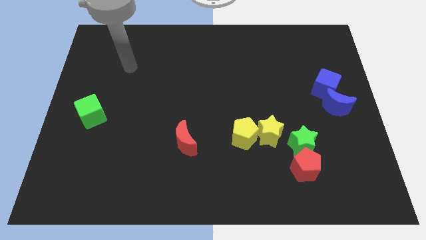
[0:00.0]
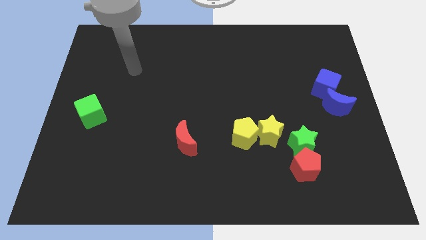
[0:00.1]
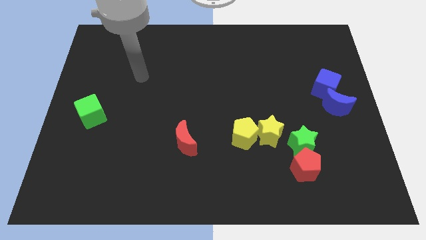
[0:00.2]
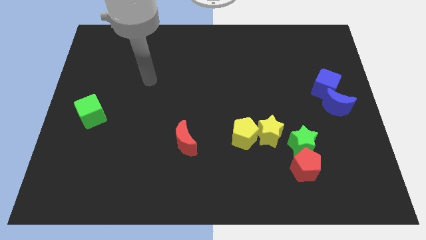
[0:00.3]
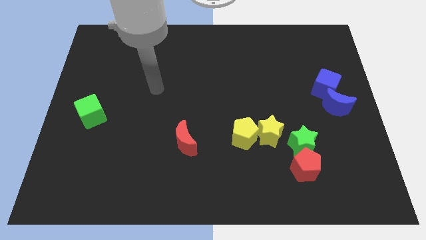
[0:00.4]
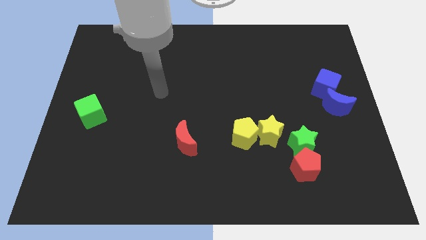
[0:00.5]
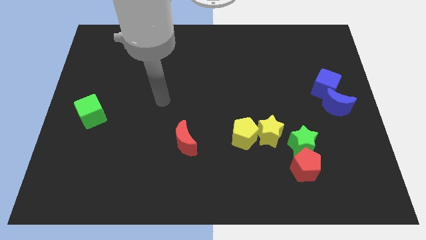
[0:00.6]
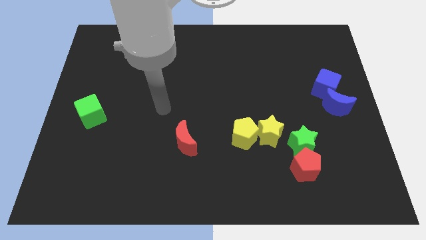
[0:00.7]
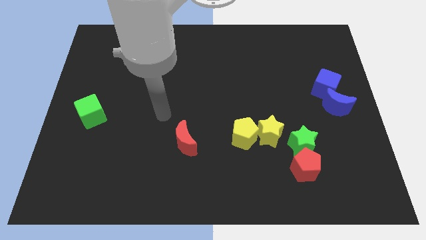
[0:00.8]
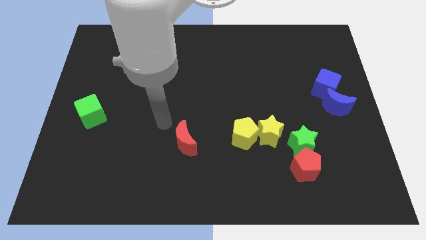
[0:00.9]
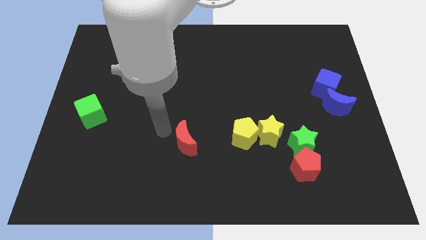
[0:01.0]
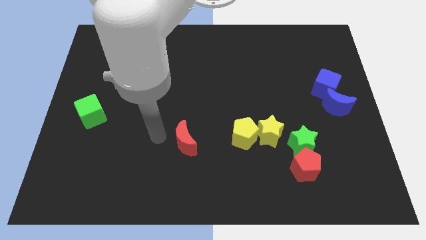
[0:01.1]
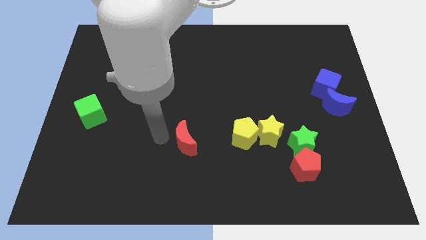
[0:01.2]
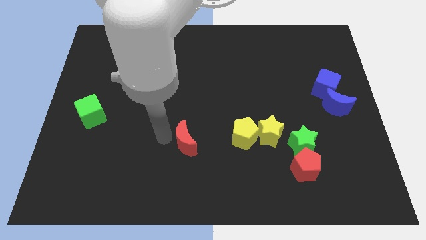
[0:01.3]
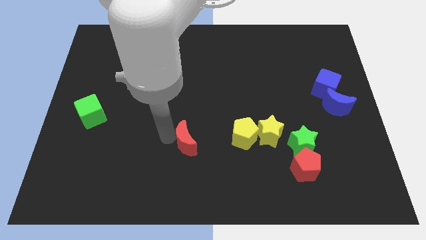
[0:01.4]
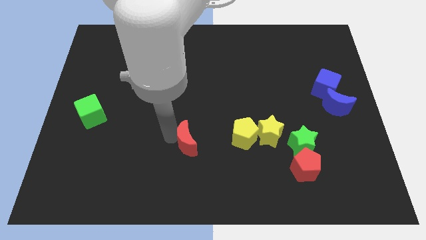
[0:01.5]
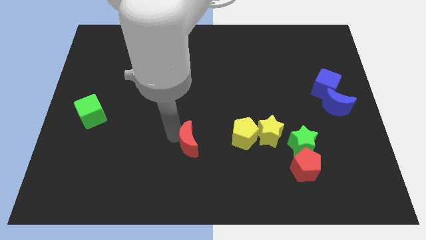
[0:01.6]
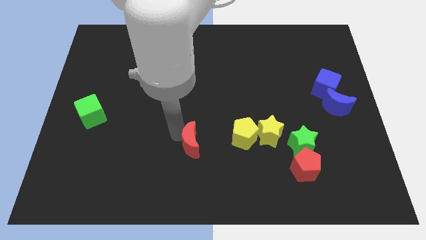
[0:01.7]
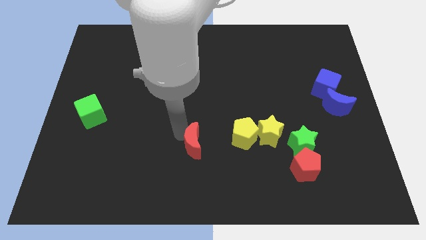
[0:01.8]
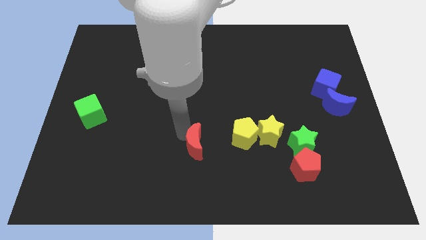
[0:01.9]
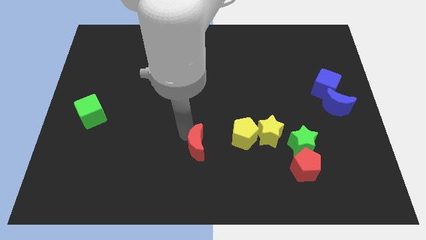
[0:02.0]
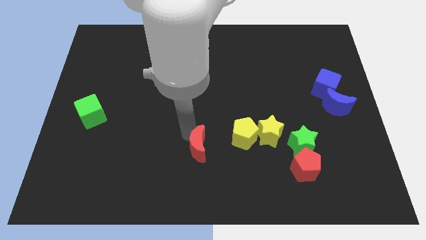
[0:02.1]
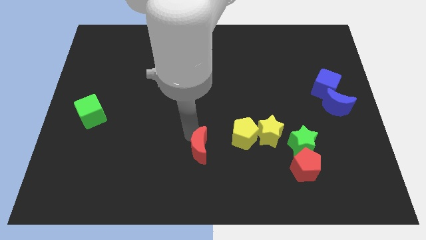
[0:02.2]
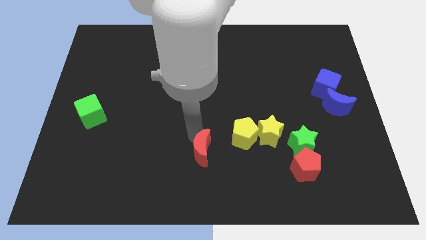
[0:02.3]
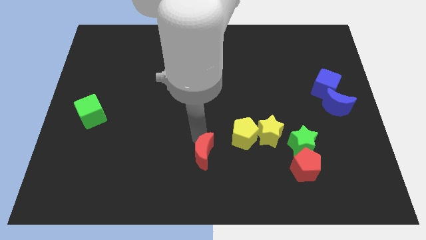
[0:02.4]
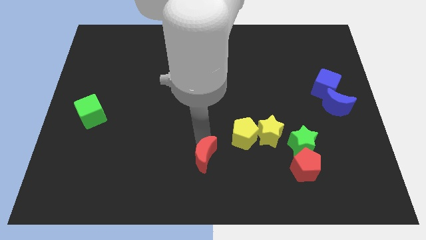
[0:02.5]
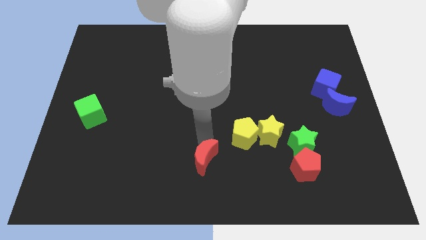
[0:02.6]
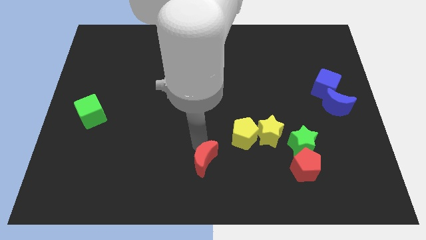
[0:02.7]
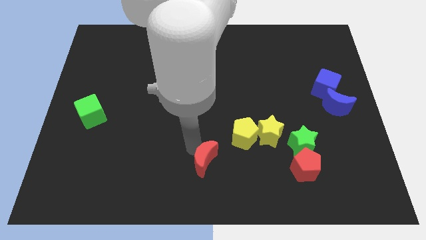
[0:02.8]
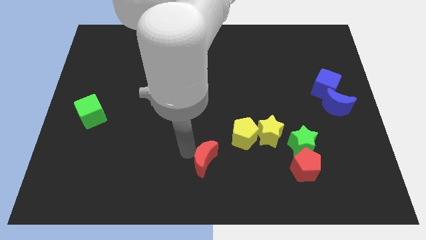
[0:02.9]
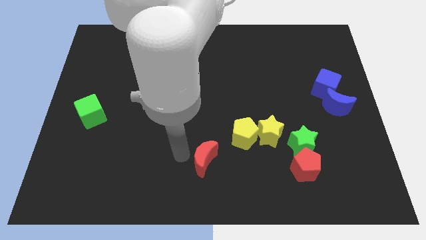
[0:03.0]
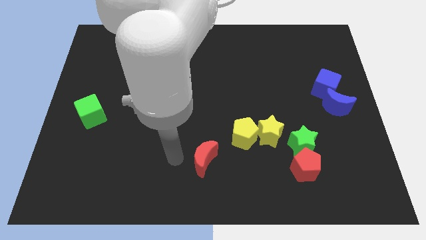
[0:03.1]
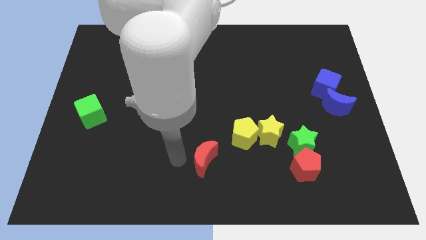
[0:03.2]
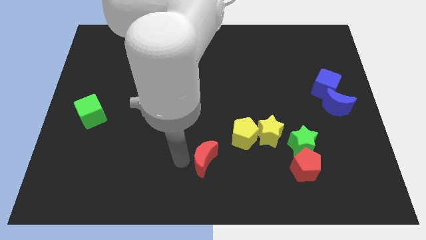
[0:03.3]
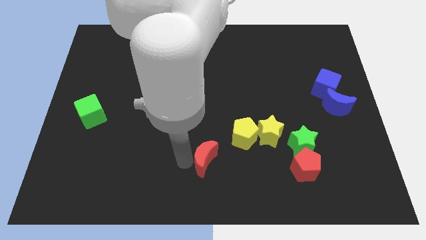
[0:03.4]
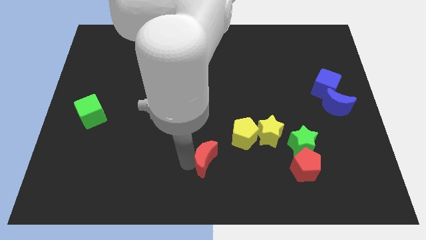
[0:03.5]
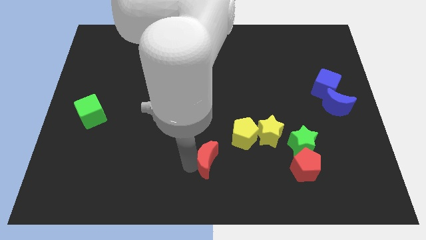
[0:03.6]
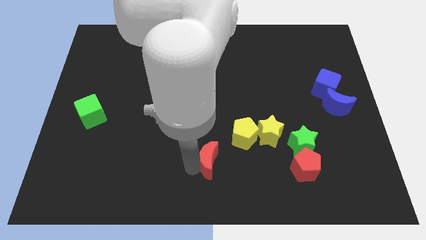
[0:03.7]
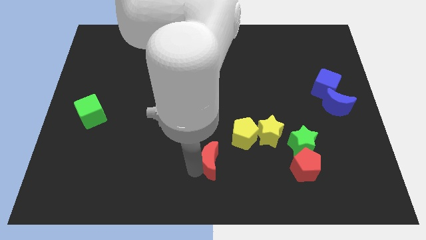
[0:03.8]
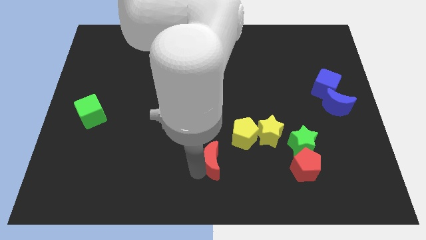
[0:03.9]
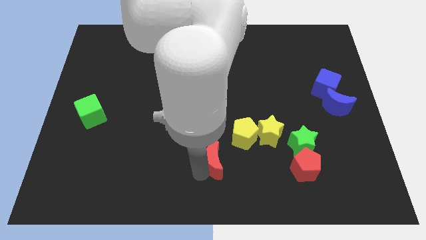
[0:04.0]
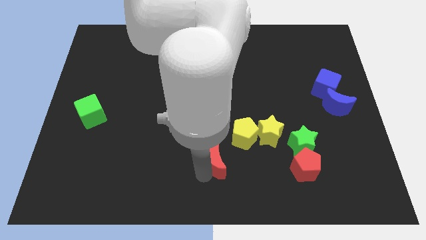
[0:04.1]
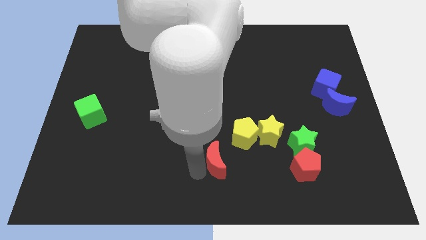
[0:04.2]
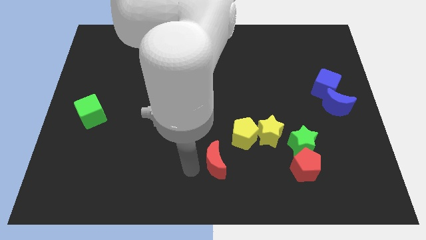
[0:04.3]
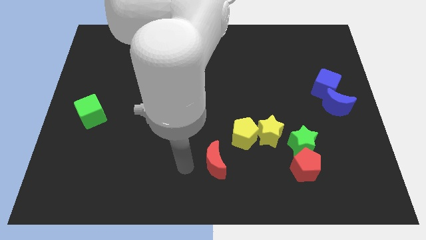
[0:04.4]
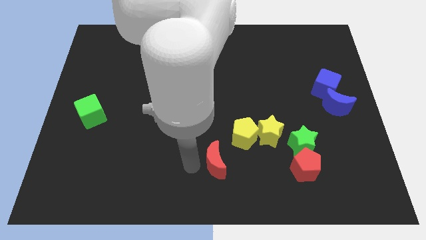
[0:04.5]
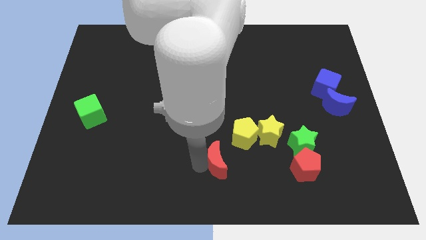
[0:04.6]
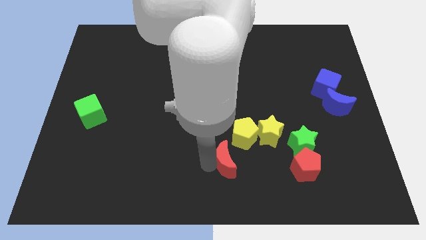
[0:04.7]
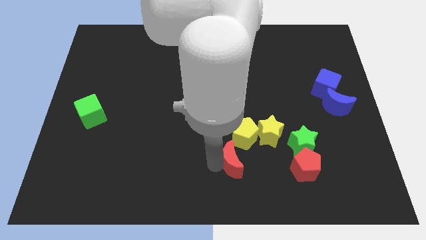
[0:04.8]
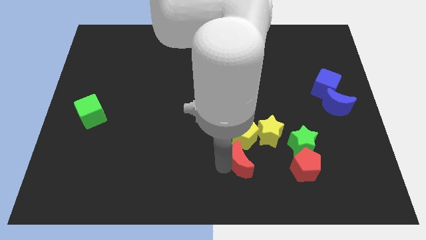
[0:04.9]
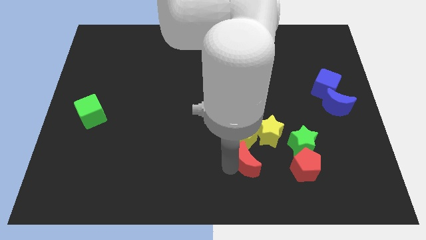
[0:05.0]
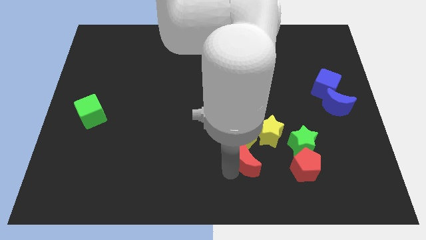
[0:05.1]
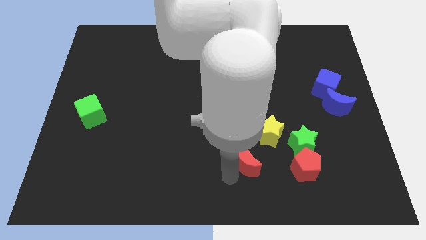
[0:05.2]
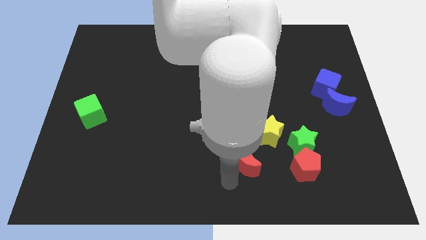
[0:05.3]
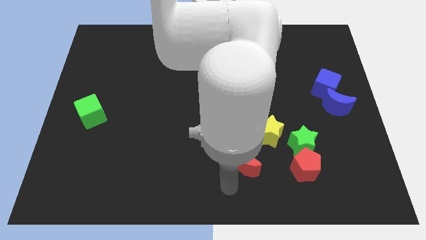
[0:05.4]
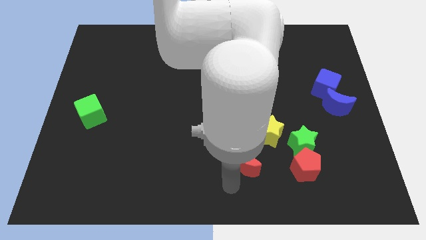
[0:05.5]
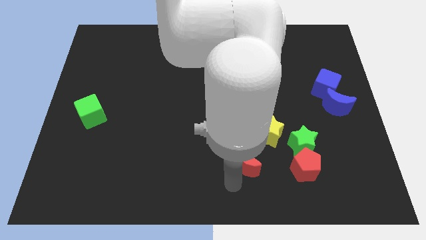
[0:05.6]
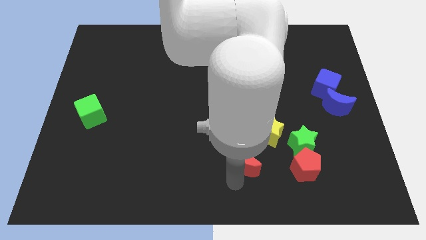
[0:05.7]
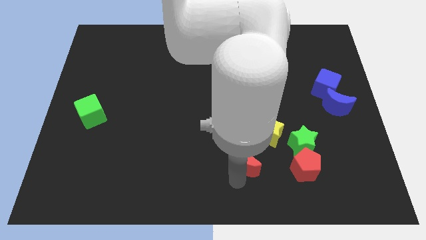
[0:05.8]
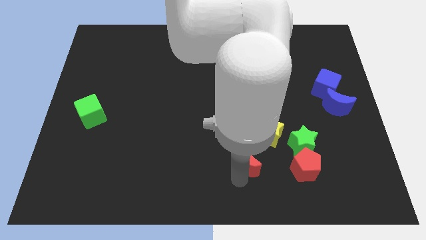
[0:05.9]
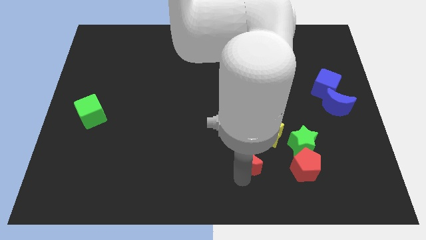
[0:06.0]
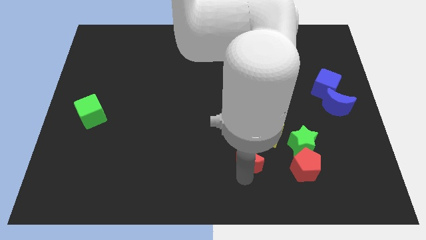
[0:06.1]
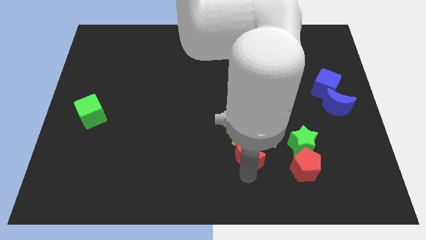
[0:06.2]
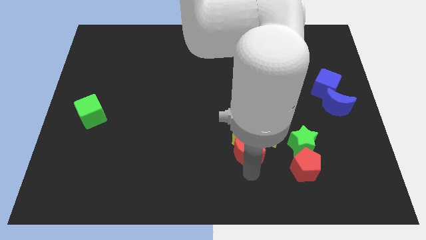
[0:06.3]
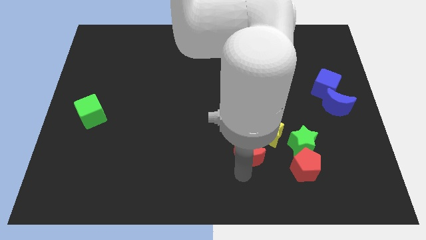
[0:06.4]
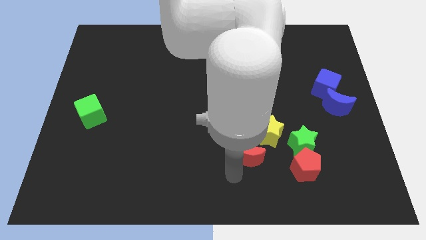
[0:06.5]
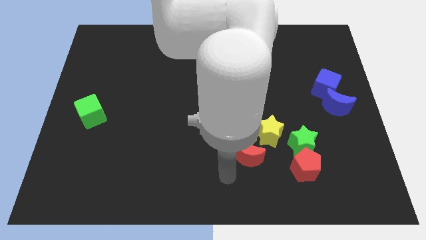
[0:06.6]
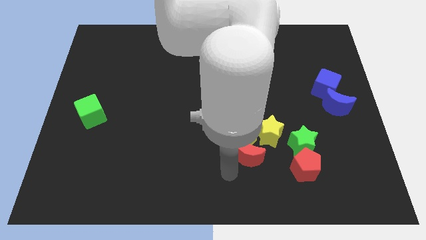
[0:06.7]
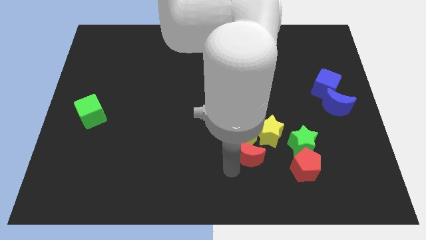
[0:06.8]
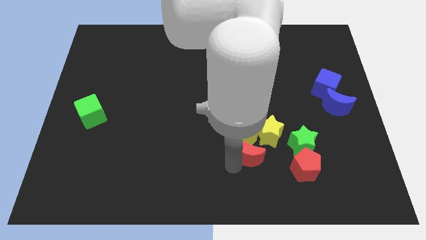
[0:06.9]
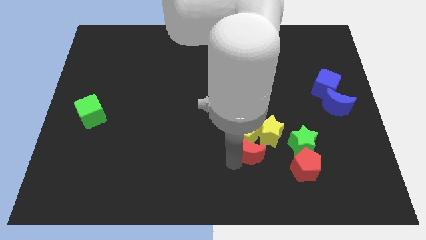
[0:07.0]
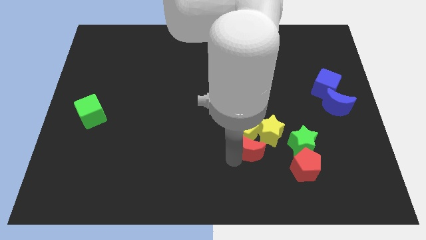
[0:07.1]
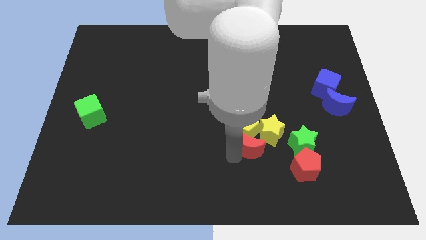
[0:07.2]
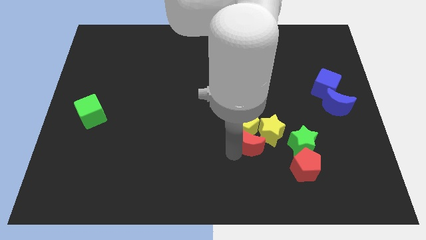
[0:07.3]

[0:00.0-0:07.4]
put the red moon close to the yellow star
